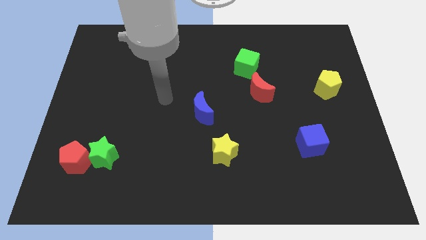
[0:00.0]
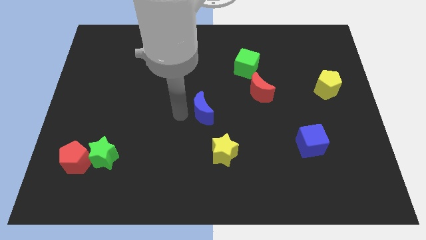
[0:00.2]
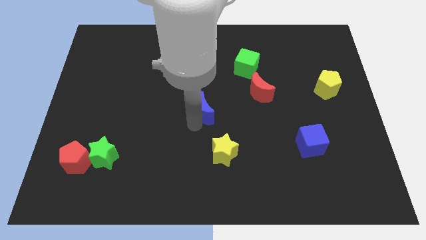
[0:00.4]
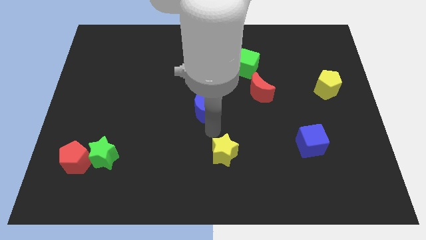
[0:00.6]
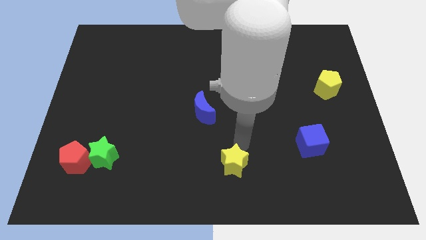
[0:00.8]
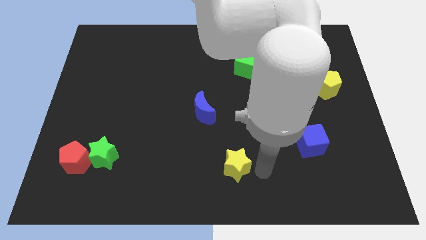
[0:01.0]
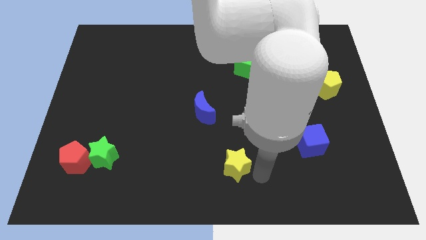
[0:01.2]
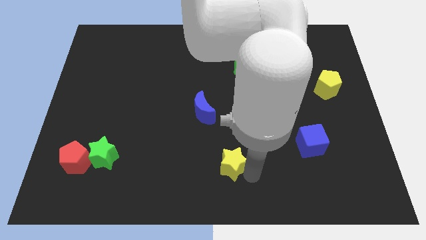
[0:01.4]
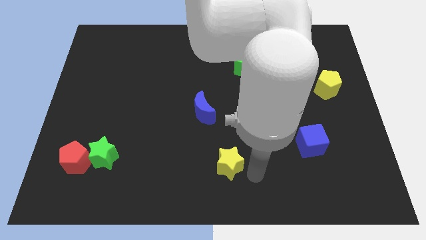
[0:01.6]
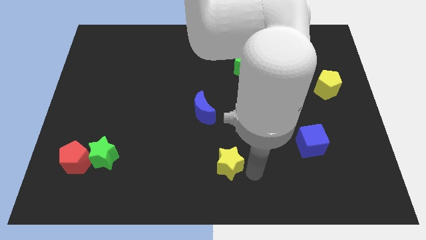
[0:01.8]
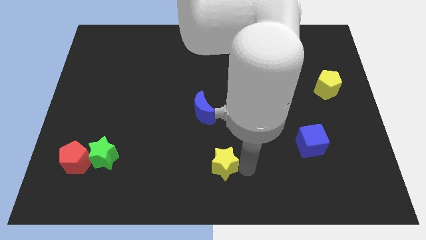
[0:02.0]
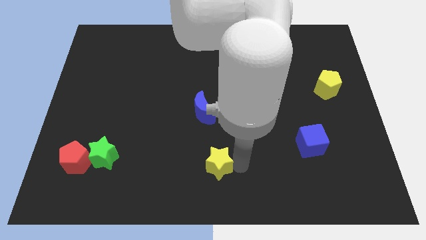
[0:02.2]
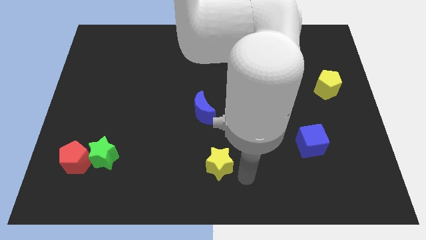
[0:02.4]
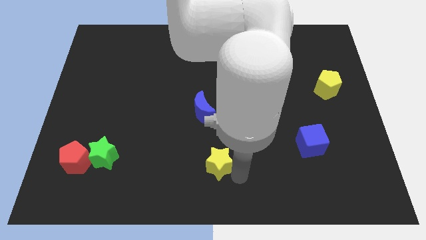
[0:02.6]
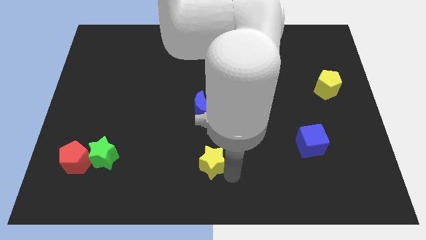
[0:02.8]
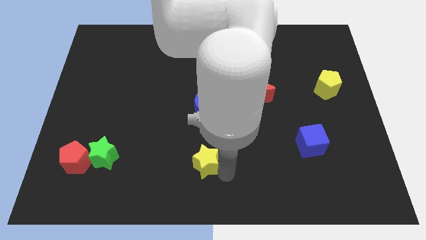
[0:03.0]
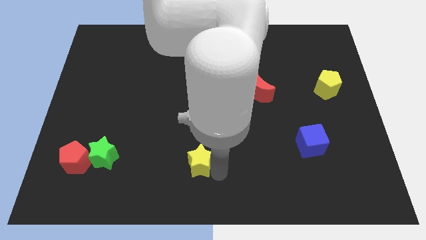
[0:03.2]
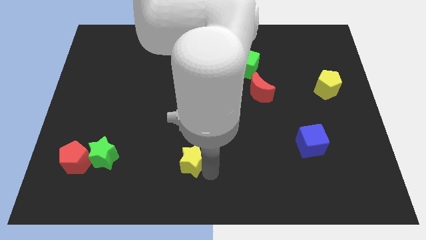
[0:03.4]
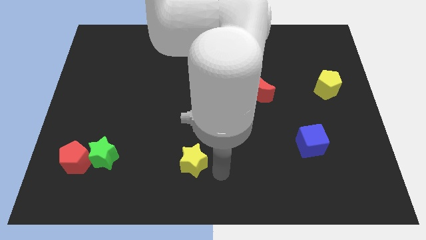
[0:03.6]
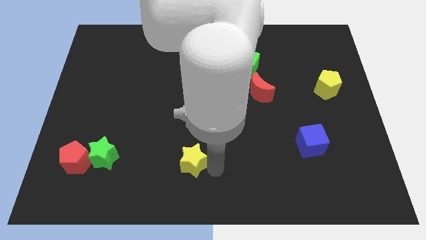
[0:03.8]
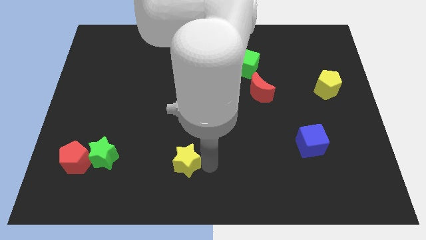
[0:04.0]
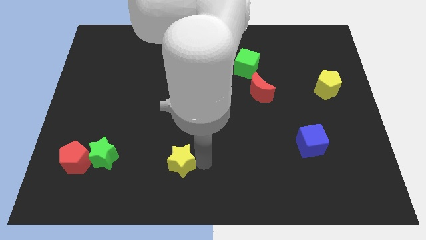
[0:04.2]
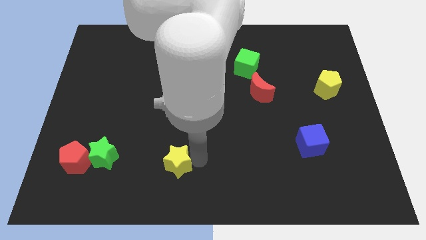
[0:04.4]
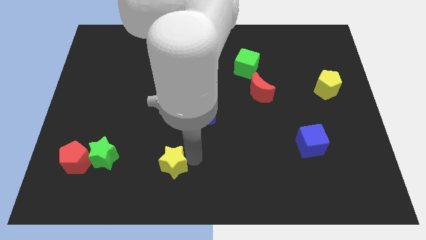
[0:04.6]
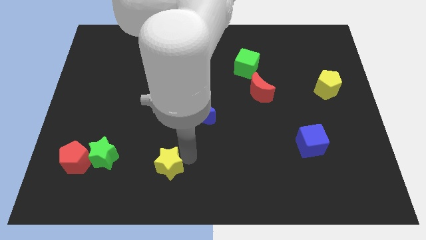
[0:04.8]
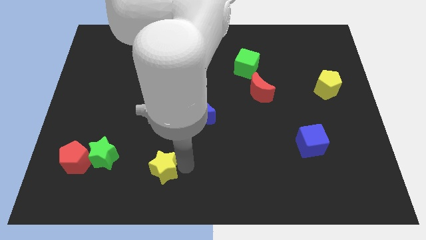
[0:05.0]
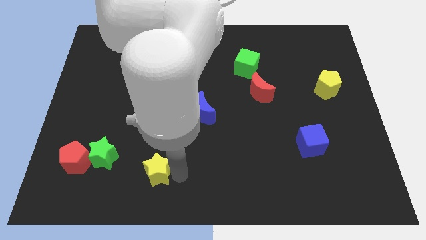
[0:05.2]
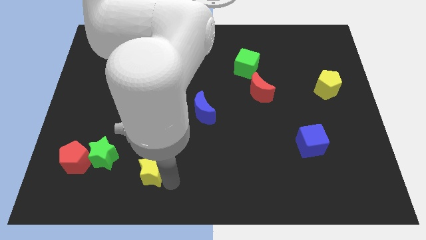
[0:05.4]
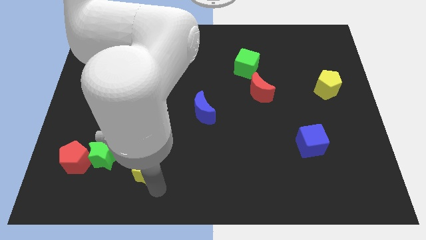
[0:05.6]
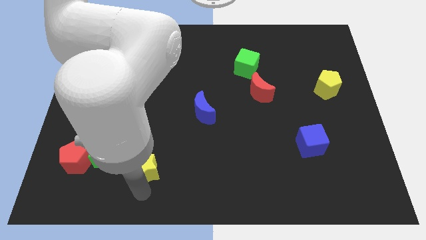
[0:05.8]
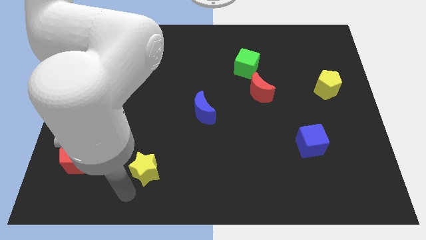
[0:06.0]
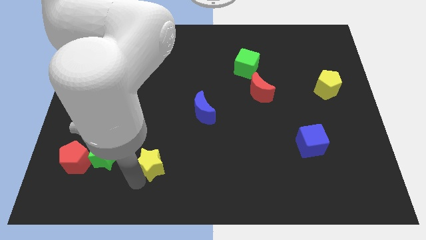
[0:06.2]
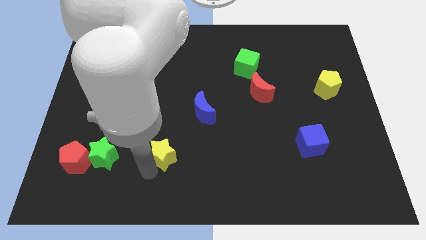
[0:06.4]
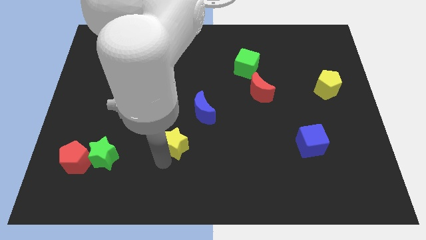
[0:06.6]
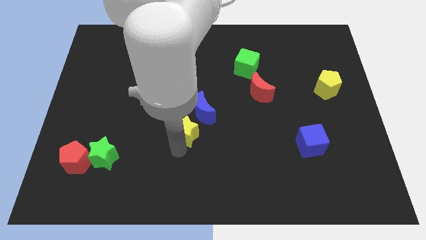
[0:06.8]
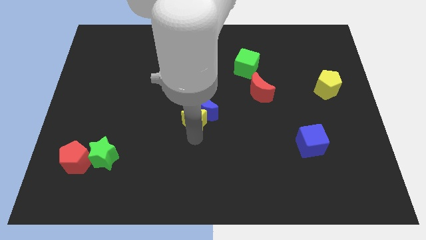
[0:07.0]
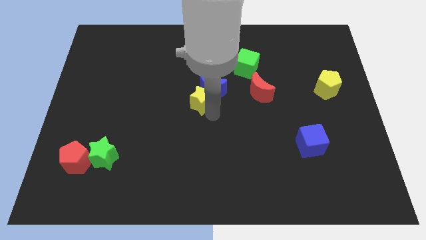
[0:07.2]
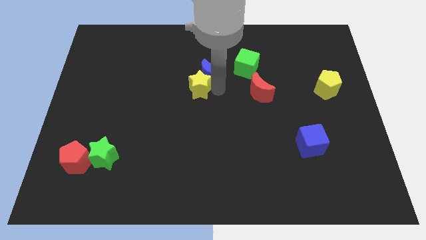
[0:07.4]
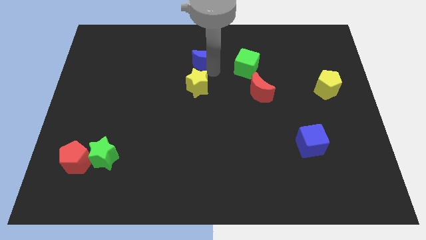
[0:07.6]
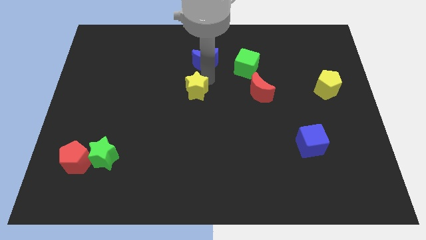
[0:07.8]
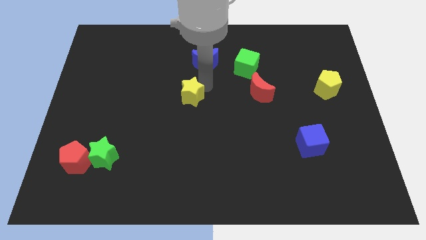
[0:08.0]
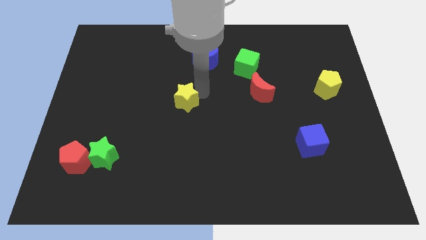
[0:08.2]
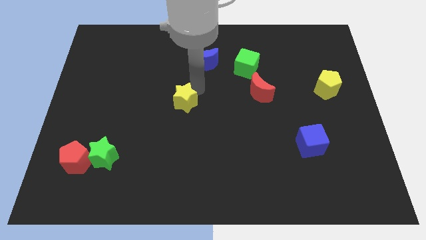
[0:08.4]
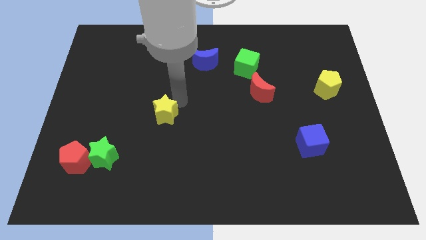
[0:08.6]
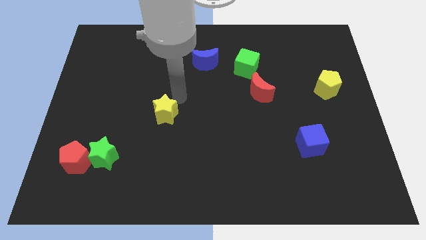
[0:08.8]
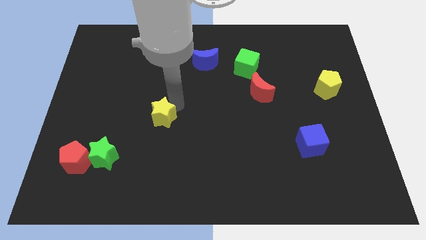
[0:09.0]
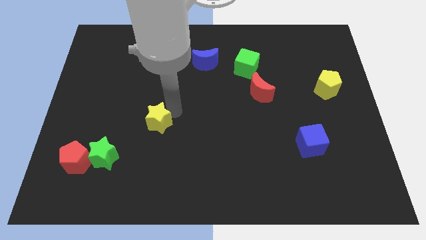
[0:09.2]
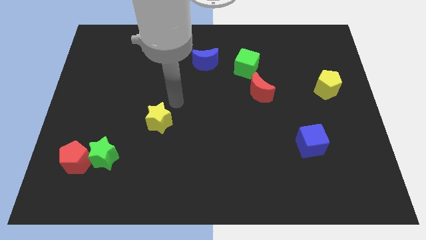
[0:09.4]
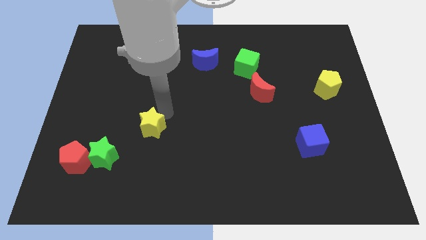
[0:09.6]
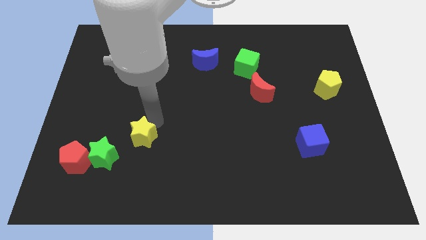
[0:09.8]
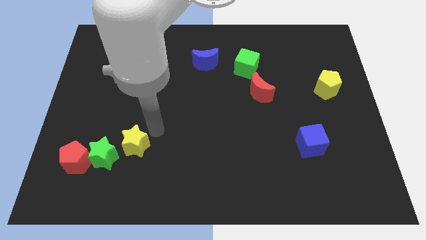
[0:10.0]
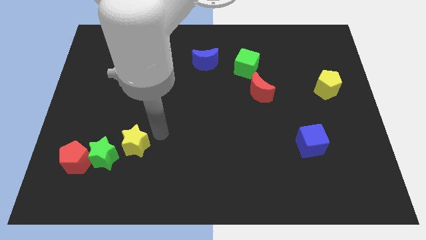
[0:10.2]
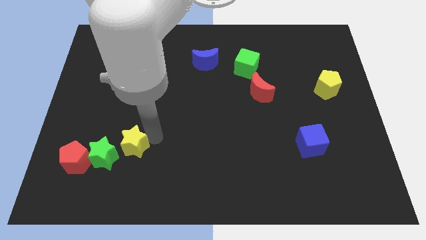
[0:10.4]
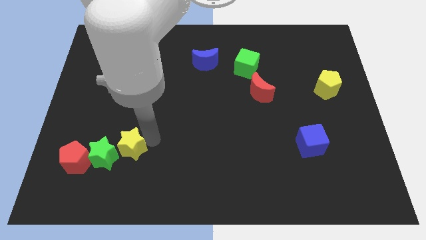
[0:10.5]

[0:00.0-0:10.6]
push the yellow star close to the green star

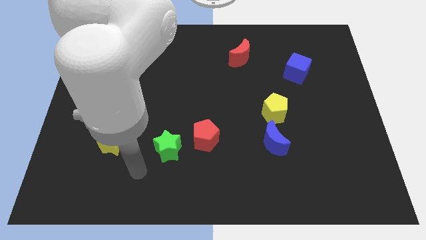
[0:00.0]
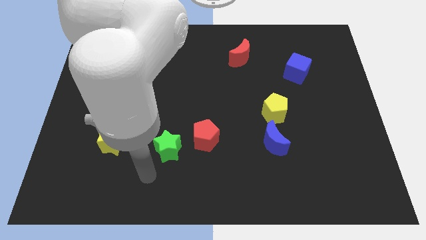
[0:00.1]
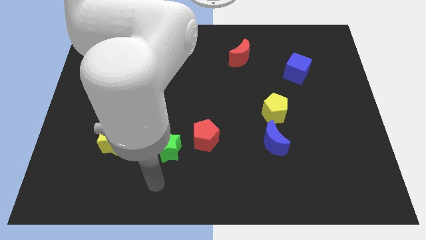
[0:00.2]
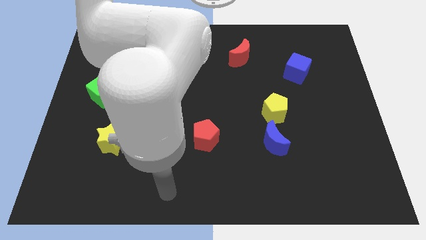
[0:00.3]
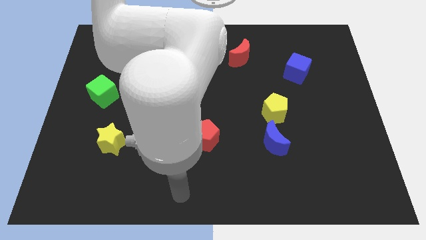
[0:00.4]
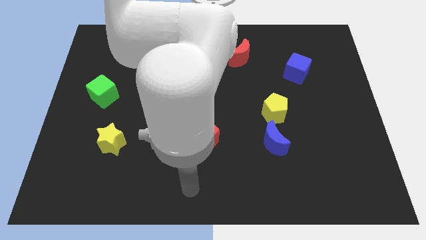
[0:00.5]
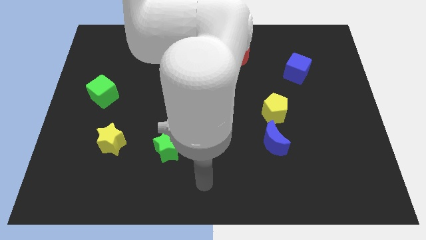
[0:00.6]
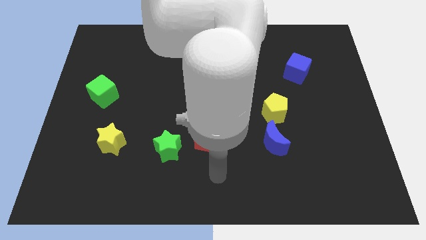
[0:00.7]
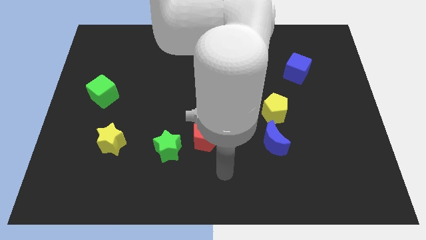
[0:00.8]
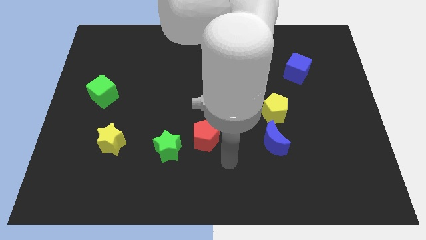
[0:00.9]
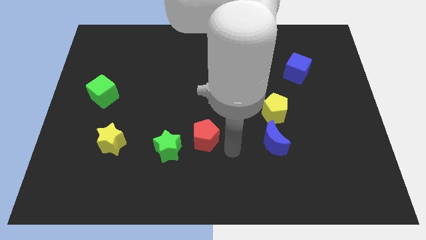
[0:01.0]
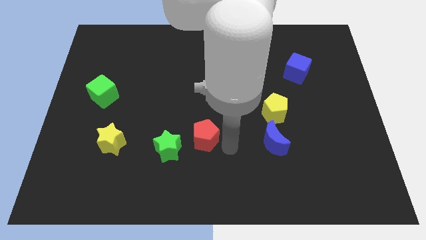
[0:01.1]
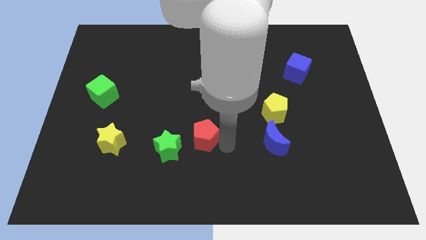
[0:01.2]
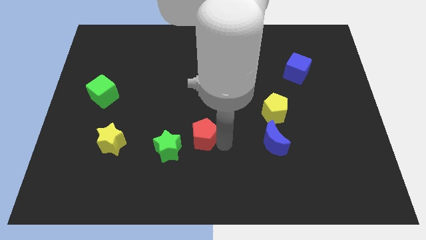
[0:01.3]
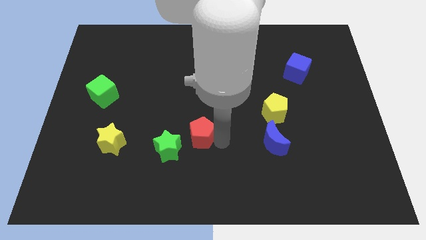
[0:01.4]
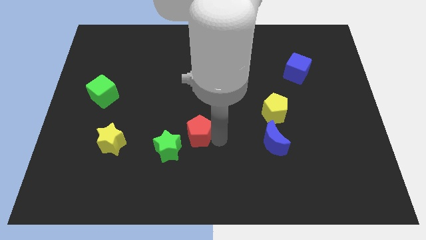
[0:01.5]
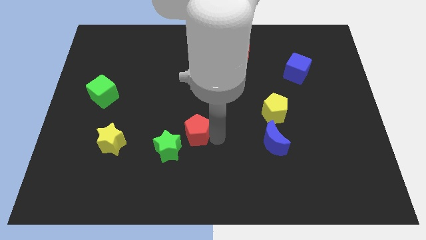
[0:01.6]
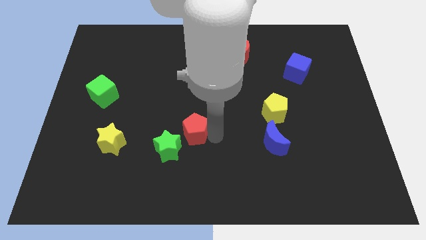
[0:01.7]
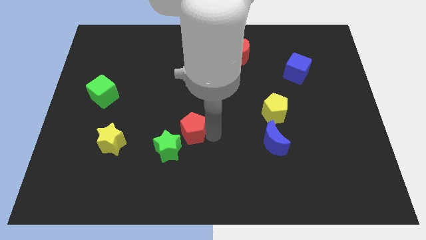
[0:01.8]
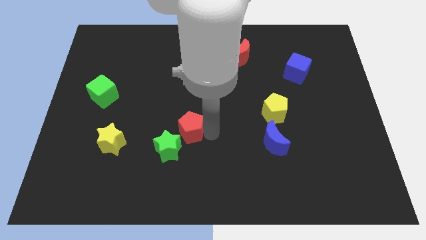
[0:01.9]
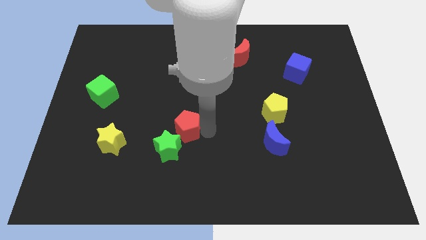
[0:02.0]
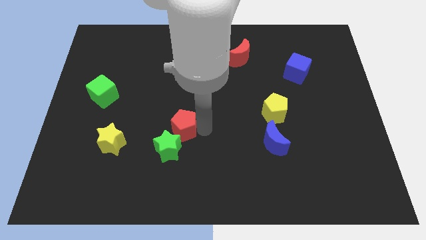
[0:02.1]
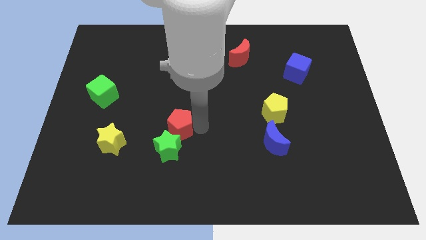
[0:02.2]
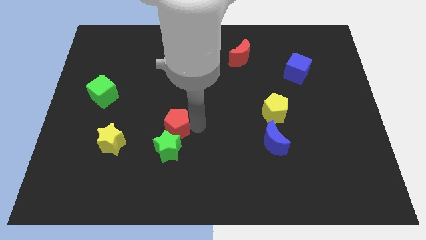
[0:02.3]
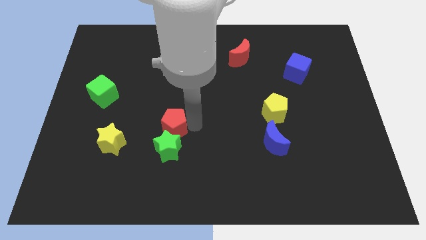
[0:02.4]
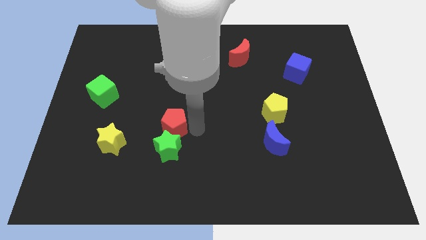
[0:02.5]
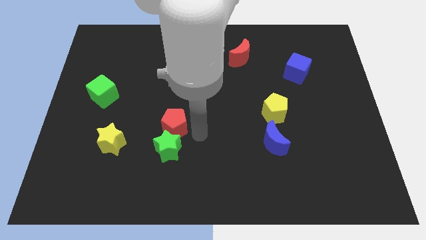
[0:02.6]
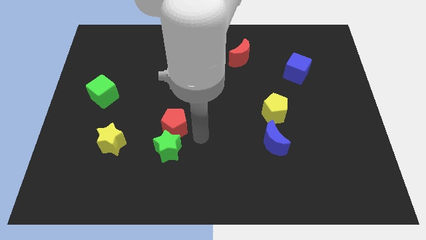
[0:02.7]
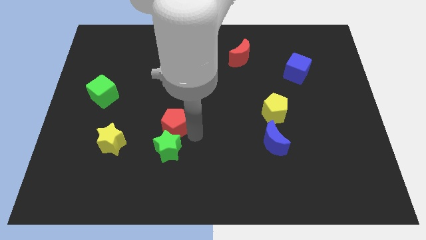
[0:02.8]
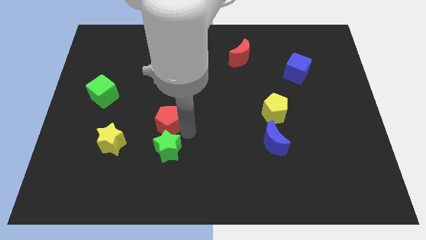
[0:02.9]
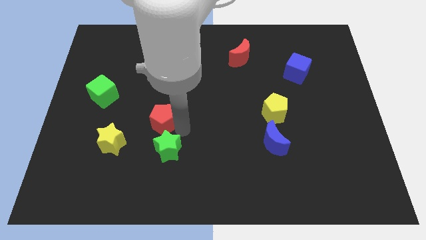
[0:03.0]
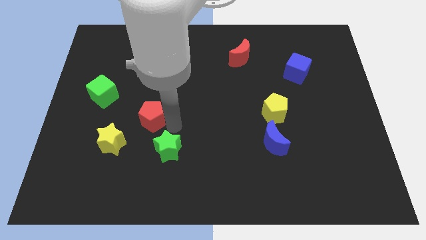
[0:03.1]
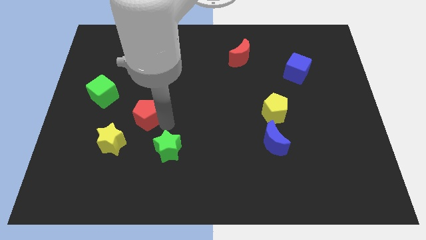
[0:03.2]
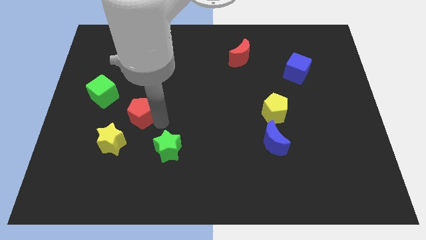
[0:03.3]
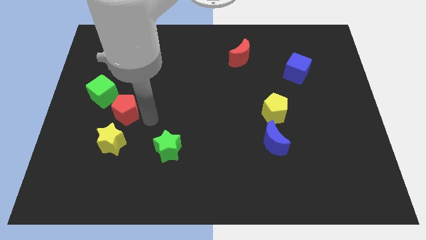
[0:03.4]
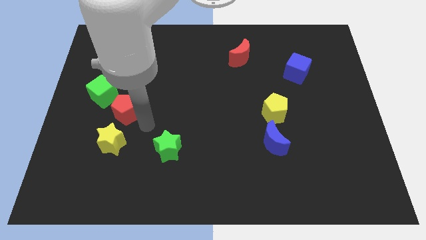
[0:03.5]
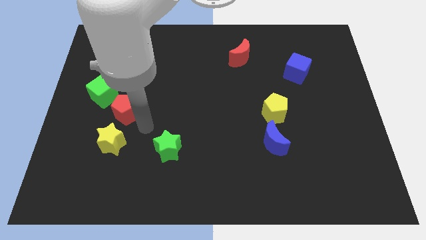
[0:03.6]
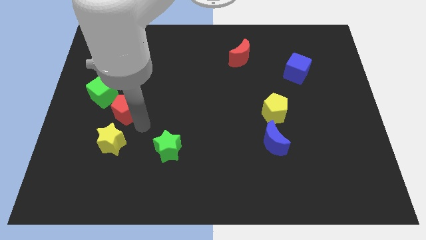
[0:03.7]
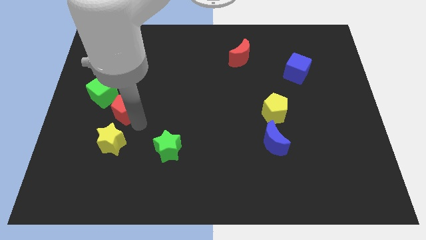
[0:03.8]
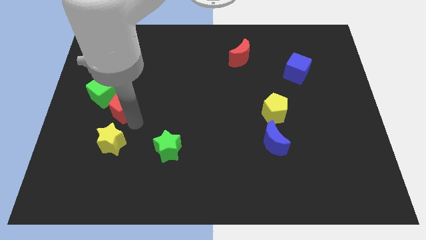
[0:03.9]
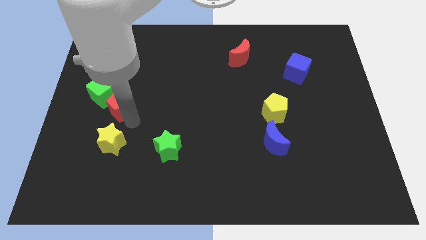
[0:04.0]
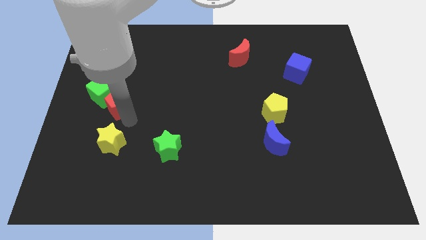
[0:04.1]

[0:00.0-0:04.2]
push the red pentagon towards the green cube
